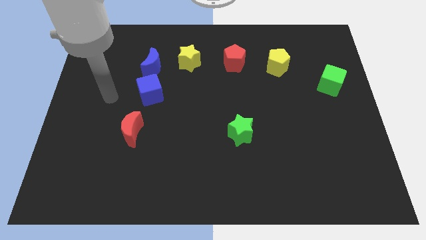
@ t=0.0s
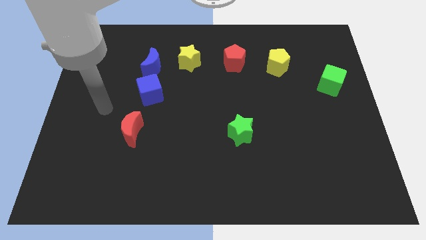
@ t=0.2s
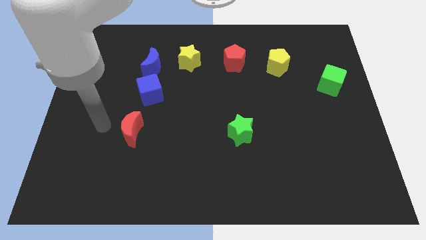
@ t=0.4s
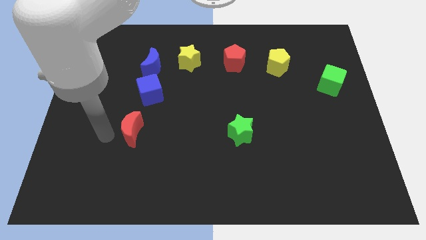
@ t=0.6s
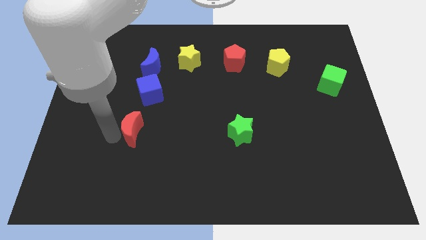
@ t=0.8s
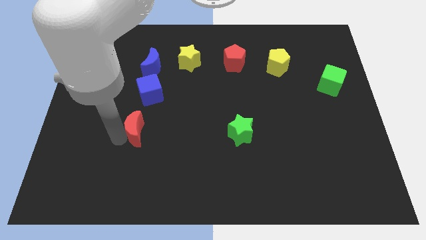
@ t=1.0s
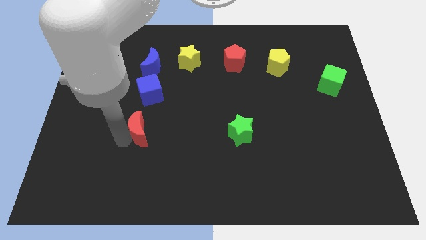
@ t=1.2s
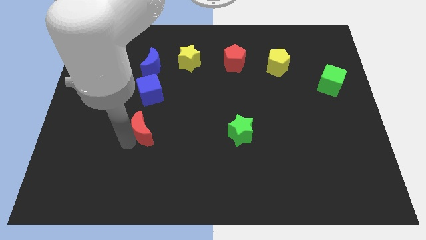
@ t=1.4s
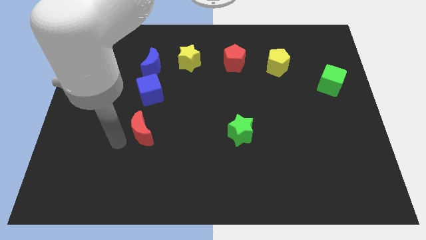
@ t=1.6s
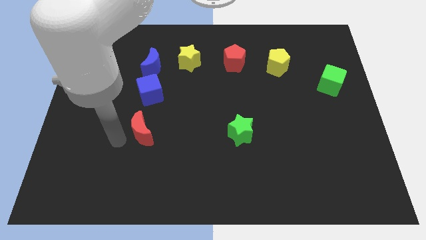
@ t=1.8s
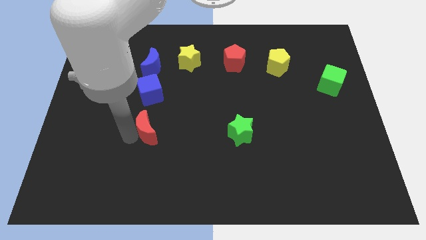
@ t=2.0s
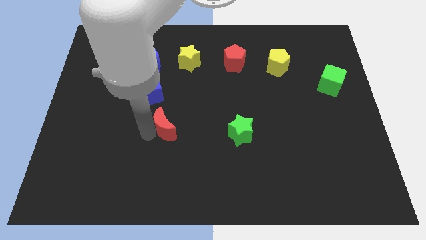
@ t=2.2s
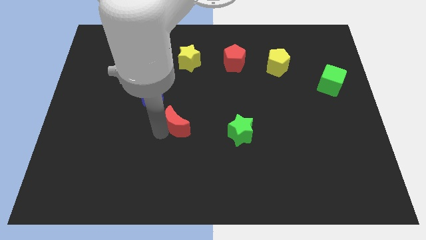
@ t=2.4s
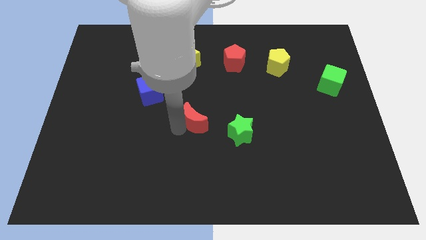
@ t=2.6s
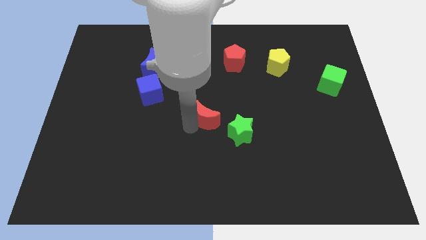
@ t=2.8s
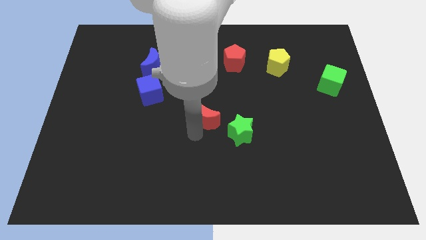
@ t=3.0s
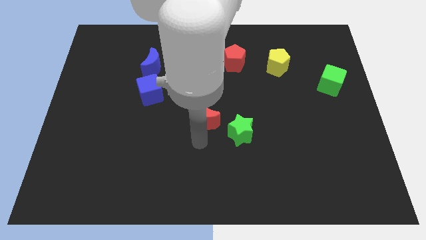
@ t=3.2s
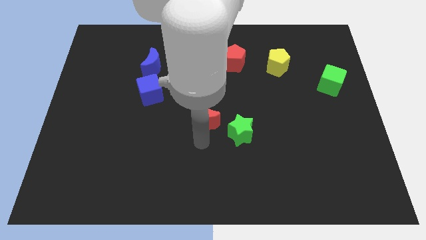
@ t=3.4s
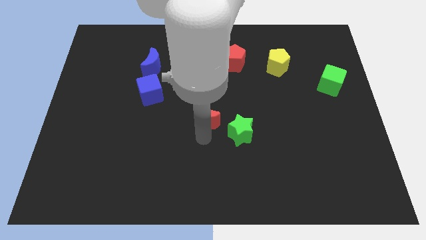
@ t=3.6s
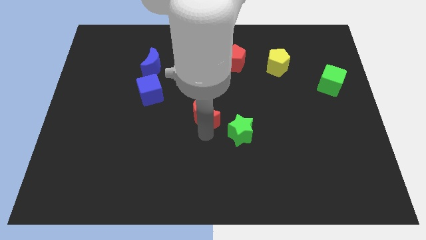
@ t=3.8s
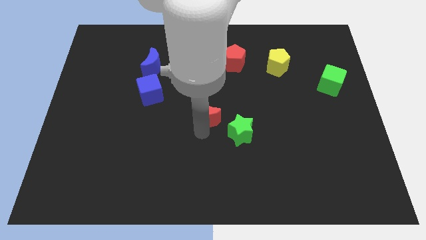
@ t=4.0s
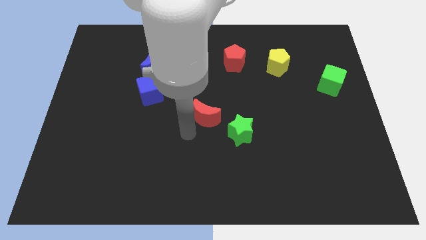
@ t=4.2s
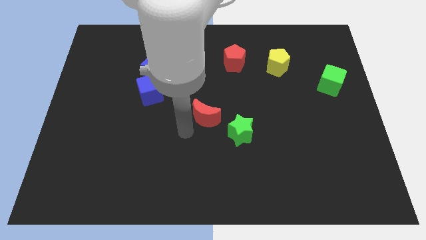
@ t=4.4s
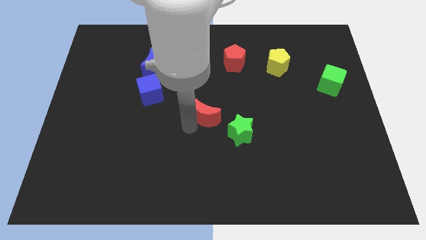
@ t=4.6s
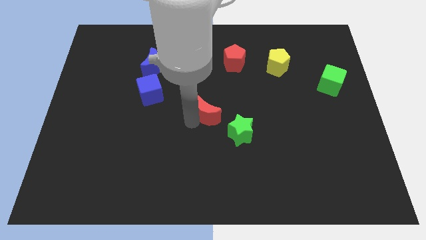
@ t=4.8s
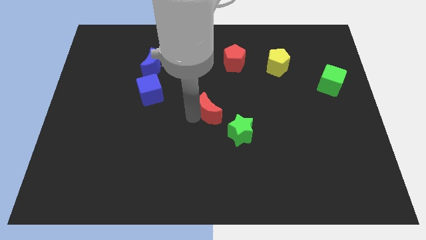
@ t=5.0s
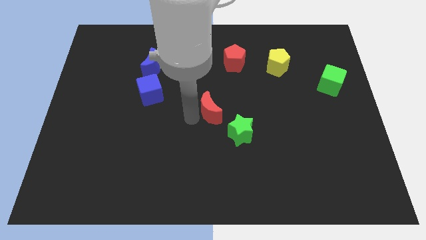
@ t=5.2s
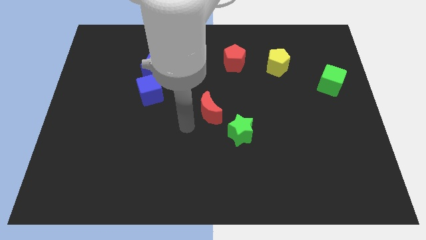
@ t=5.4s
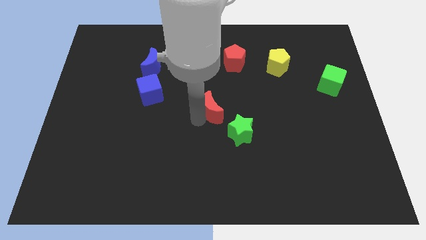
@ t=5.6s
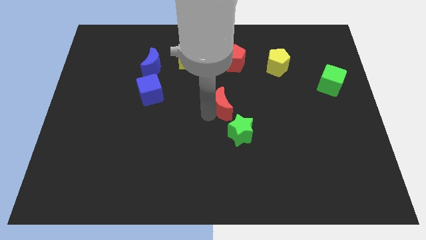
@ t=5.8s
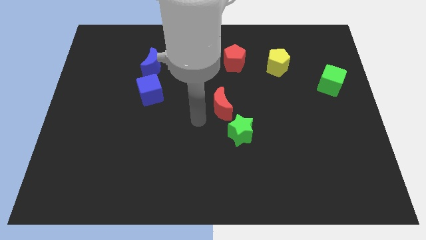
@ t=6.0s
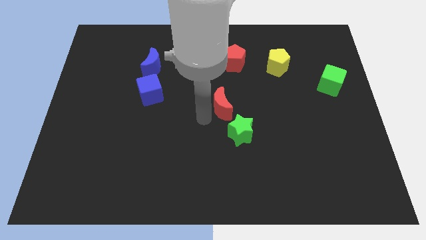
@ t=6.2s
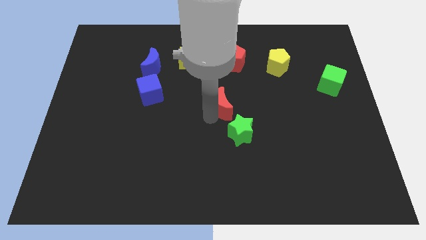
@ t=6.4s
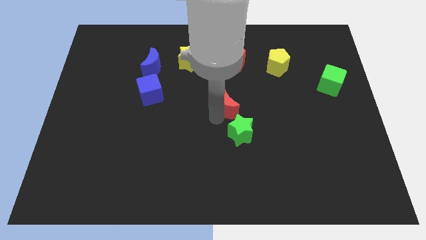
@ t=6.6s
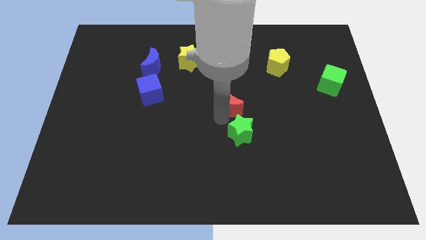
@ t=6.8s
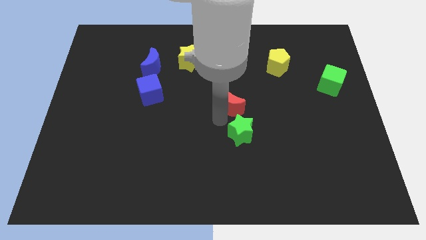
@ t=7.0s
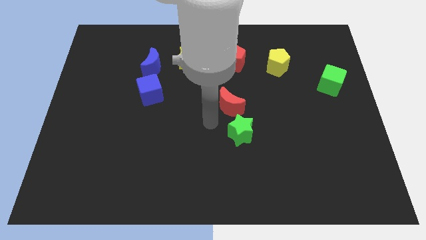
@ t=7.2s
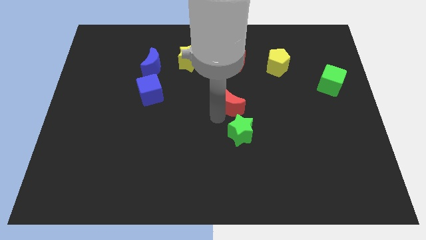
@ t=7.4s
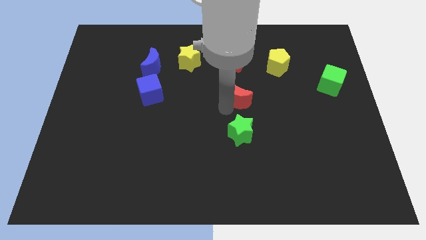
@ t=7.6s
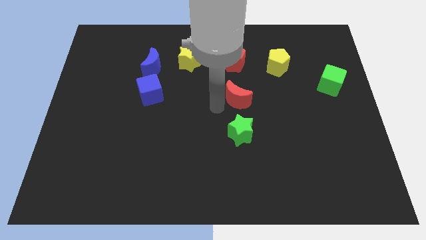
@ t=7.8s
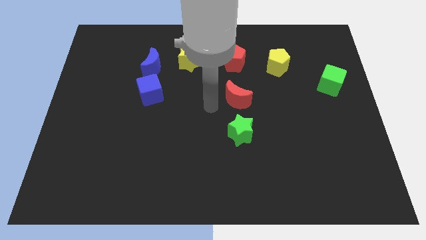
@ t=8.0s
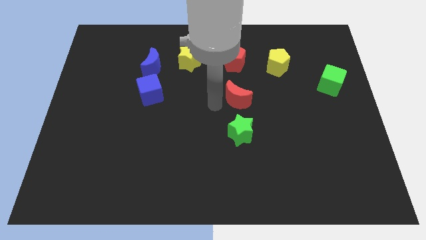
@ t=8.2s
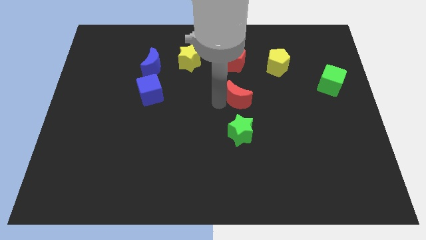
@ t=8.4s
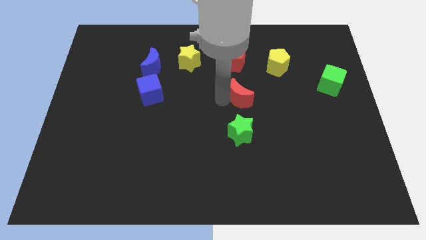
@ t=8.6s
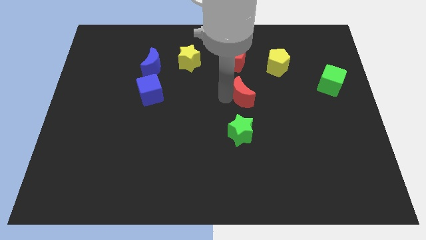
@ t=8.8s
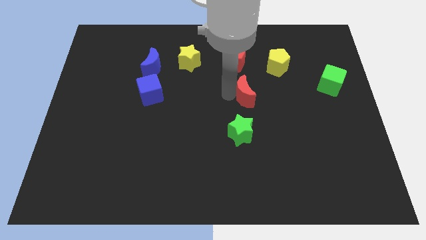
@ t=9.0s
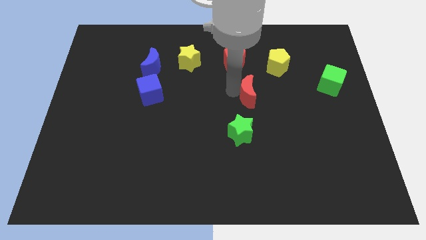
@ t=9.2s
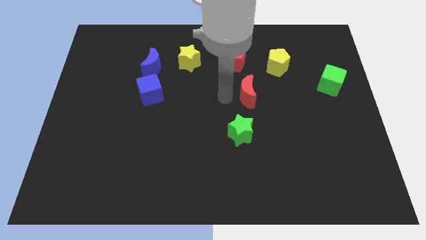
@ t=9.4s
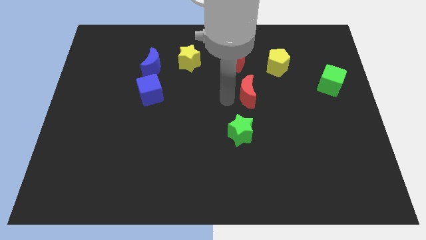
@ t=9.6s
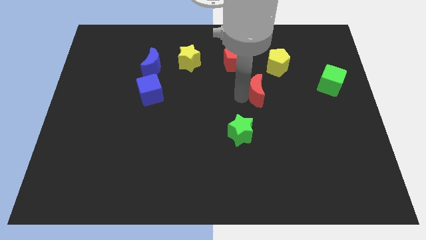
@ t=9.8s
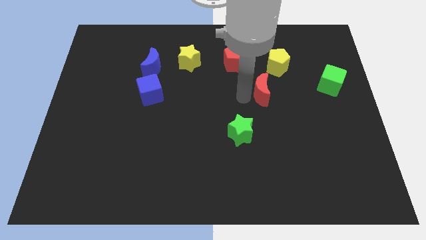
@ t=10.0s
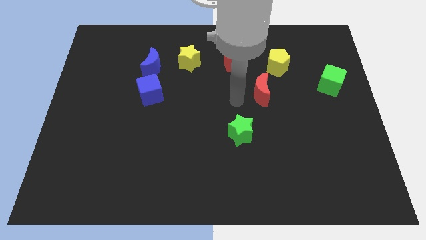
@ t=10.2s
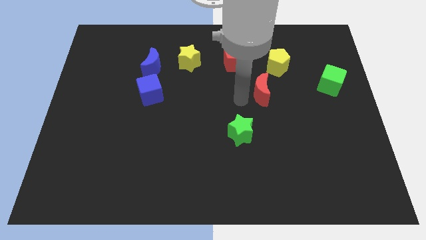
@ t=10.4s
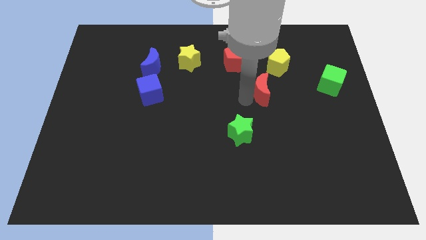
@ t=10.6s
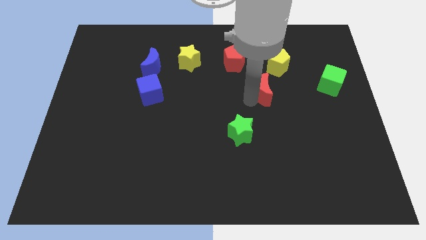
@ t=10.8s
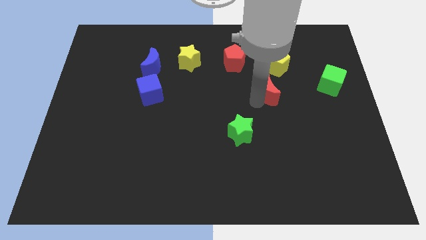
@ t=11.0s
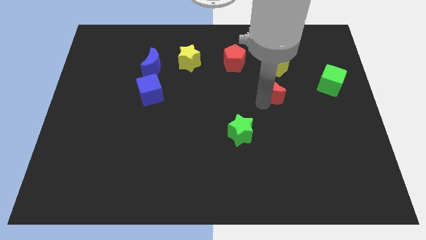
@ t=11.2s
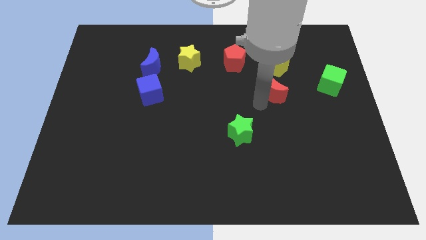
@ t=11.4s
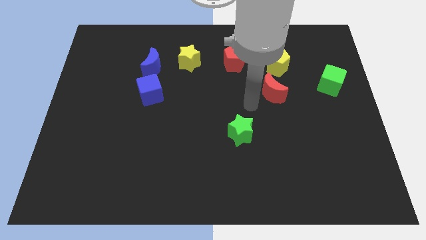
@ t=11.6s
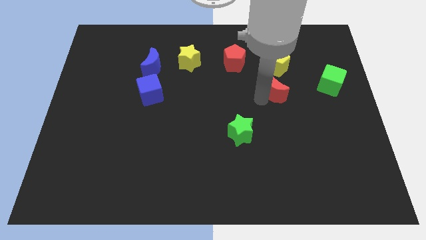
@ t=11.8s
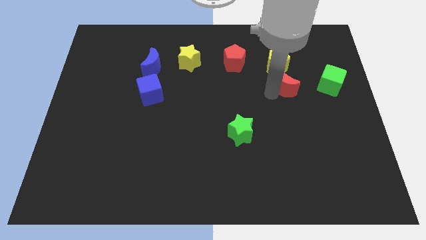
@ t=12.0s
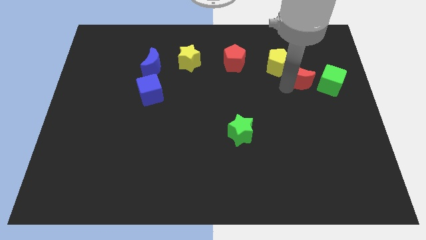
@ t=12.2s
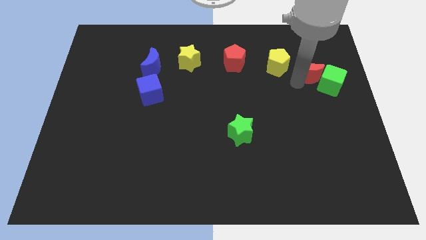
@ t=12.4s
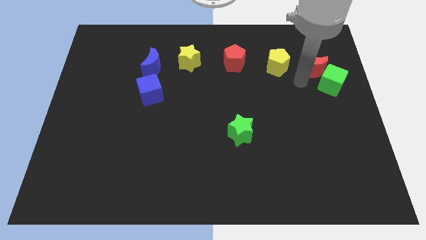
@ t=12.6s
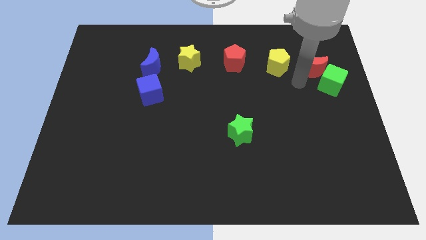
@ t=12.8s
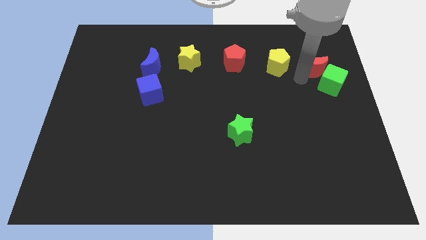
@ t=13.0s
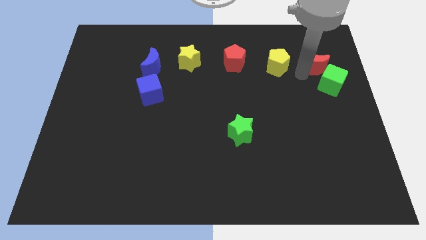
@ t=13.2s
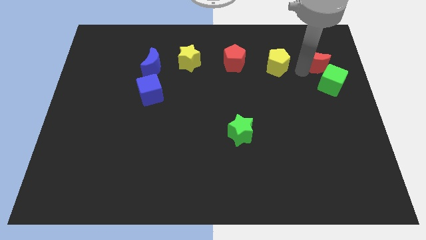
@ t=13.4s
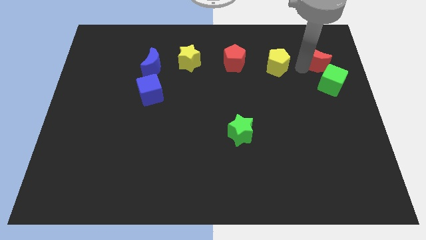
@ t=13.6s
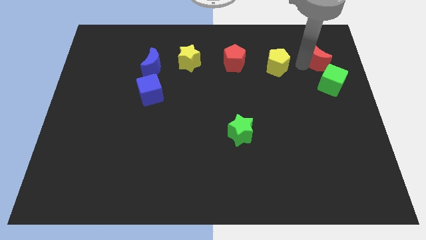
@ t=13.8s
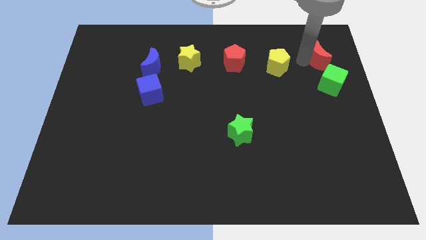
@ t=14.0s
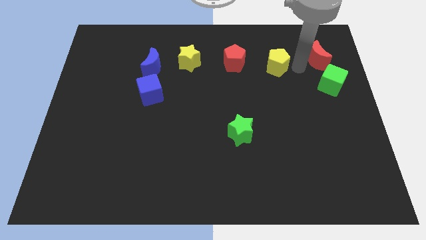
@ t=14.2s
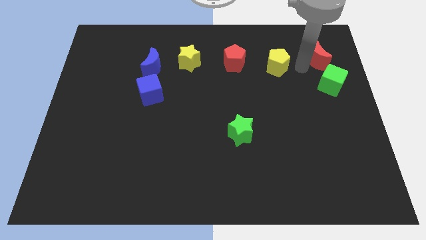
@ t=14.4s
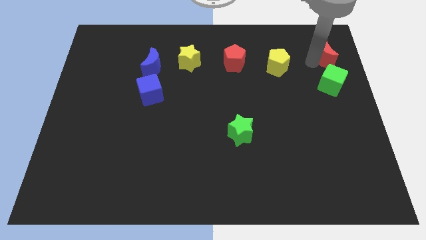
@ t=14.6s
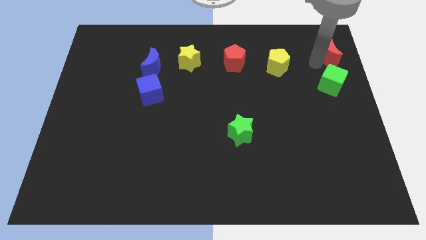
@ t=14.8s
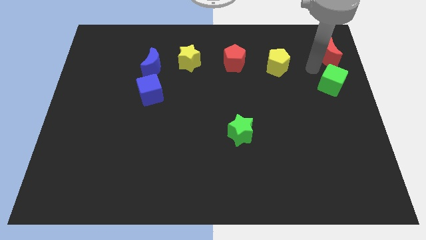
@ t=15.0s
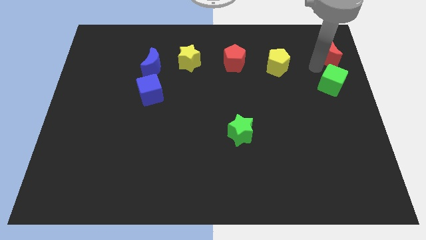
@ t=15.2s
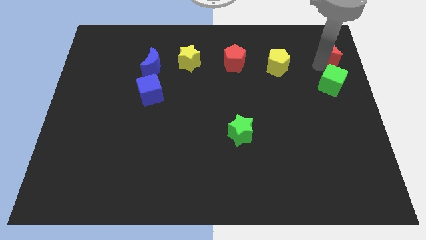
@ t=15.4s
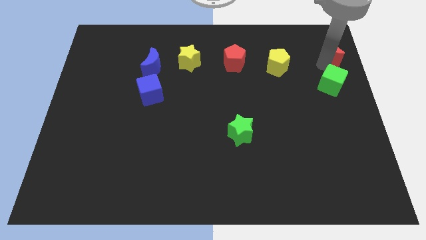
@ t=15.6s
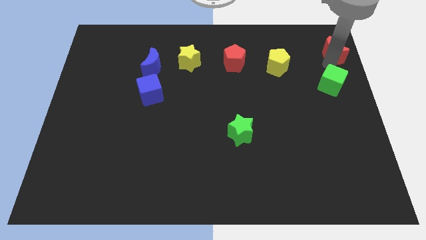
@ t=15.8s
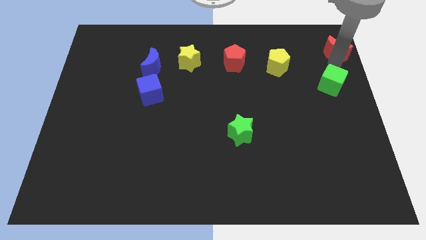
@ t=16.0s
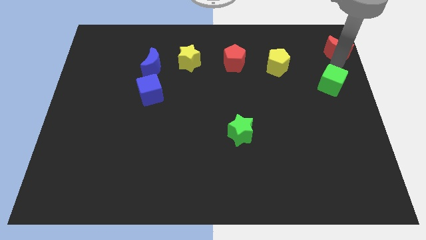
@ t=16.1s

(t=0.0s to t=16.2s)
put the red moon to the top right corner
